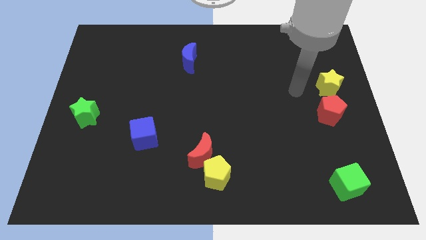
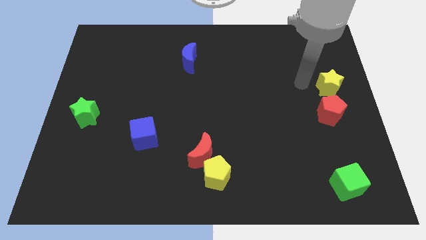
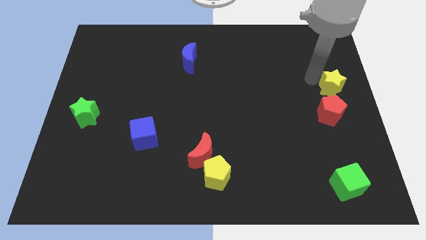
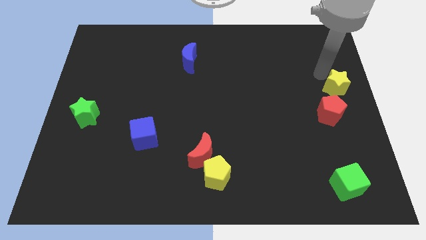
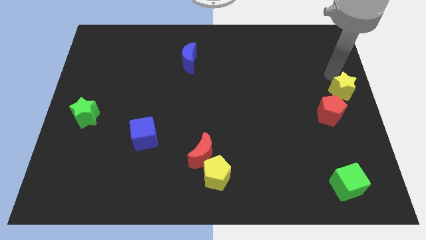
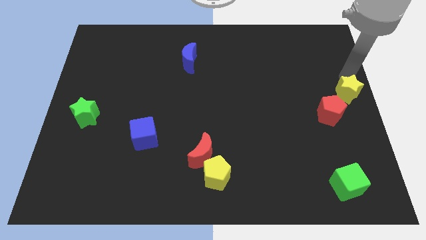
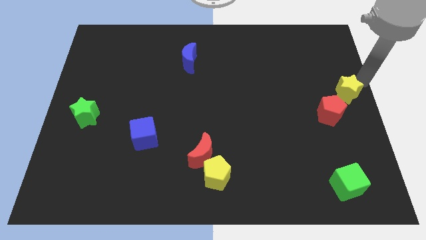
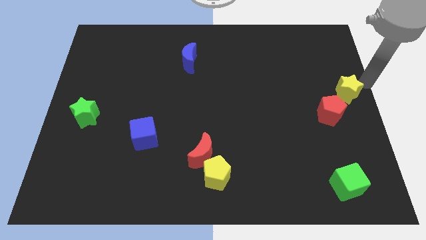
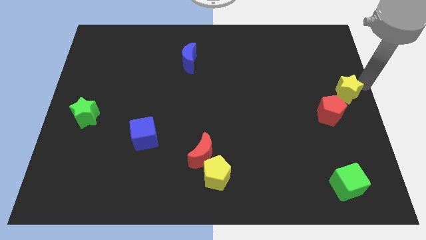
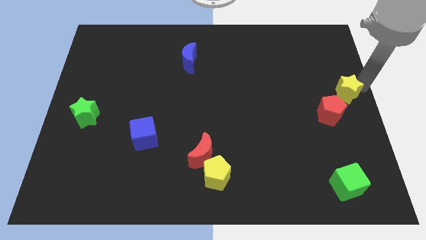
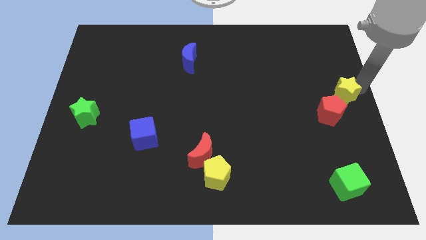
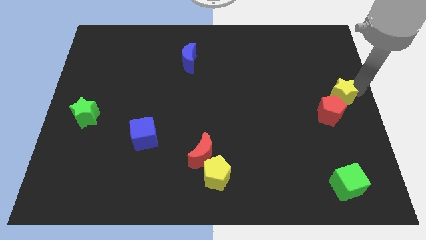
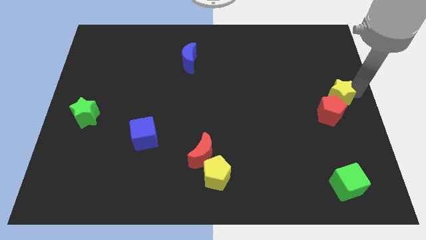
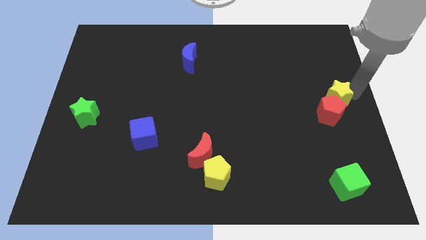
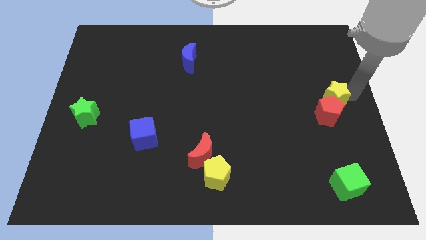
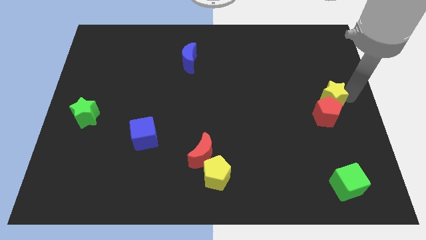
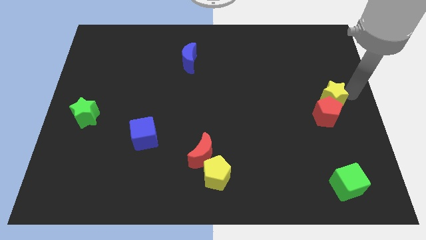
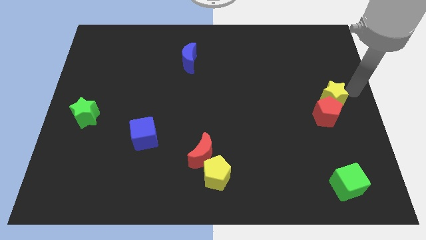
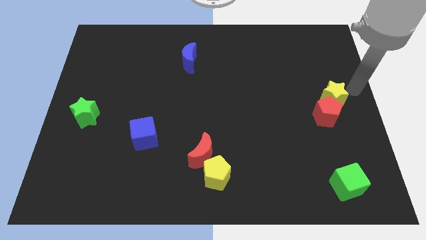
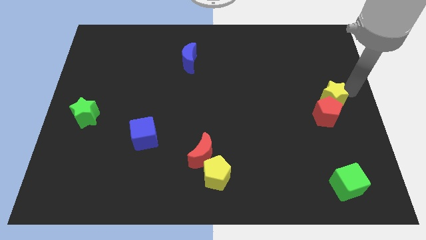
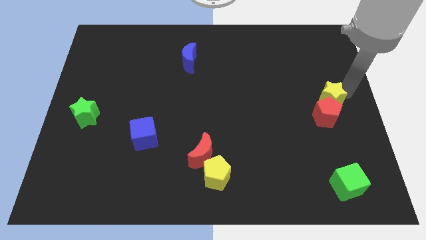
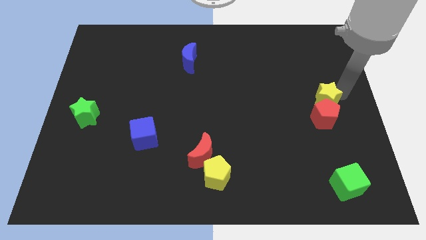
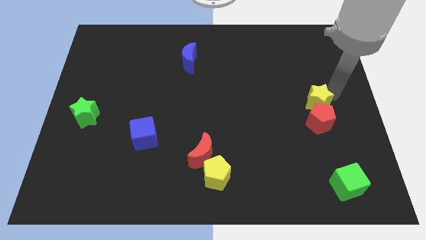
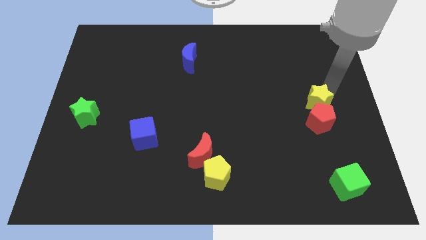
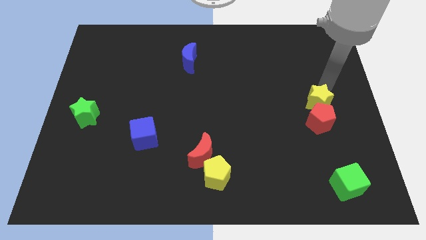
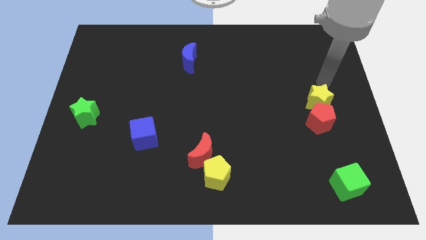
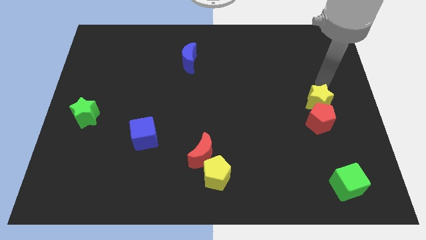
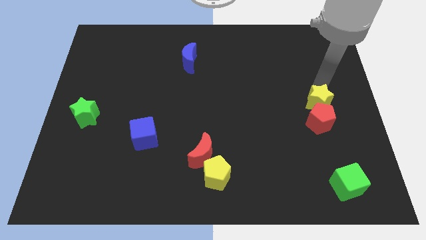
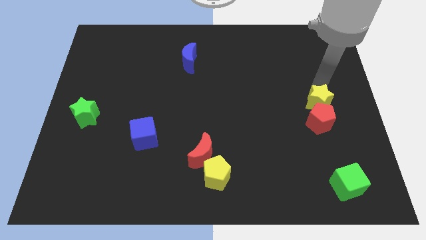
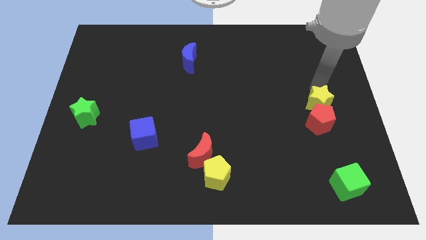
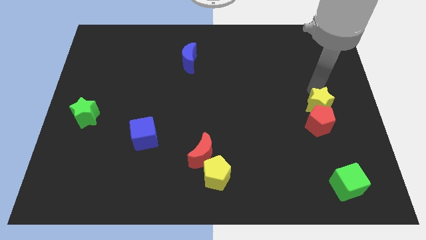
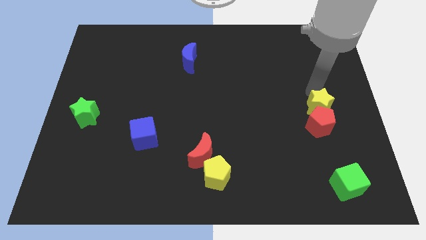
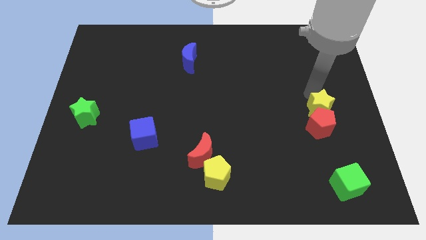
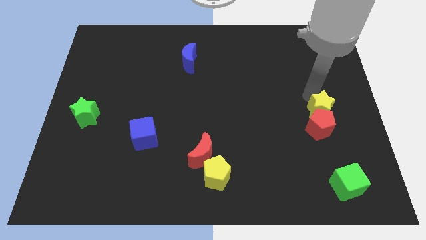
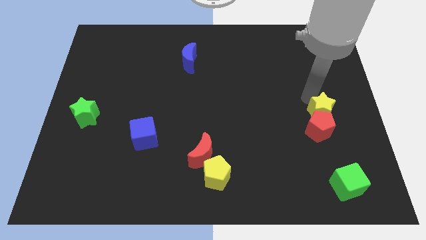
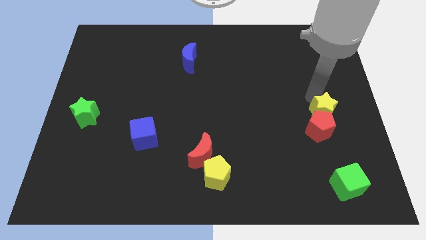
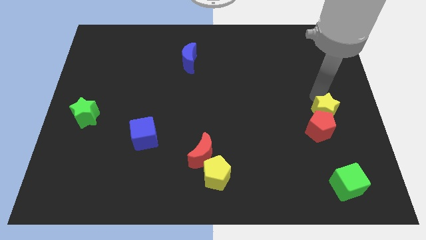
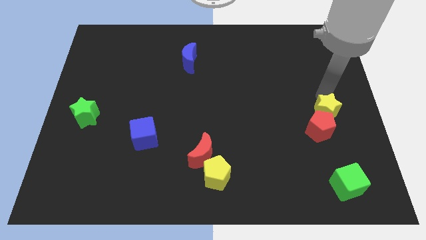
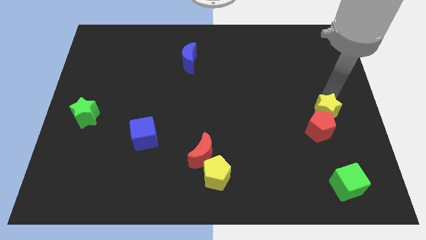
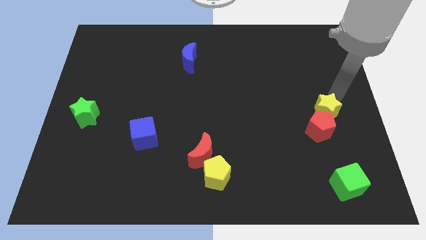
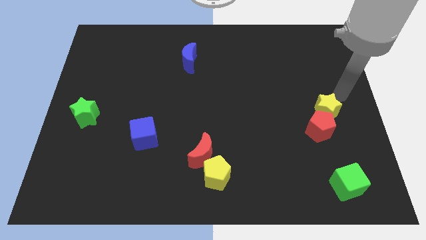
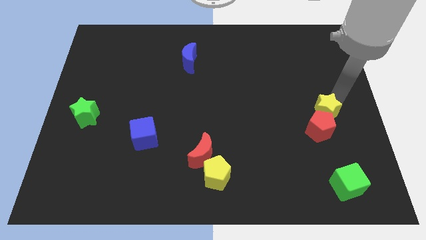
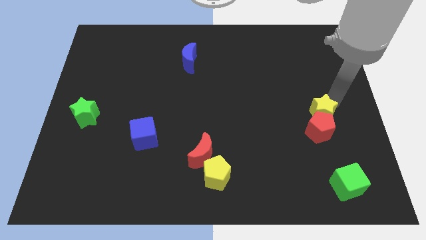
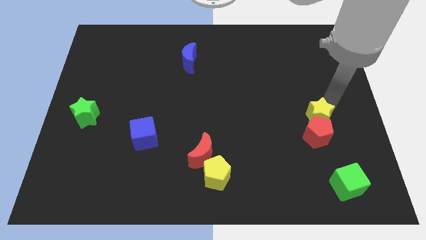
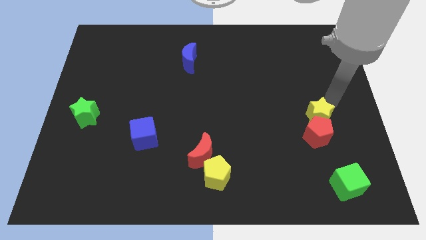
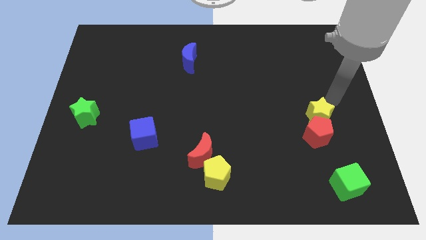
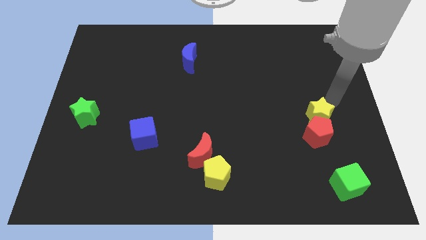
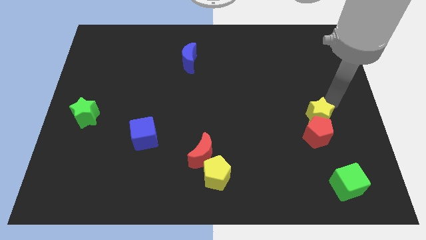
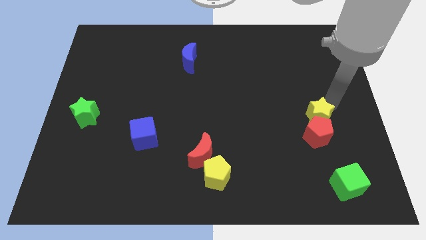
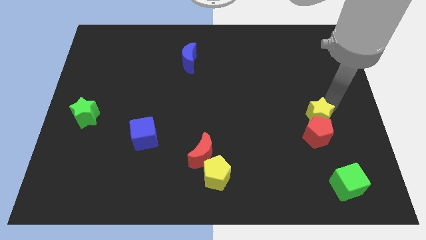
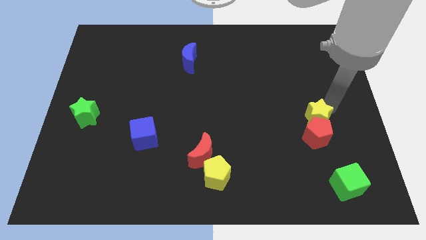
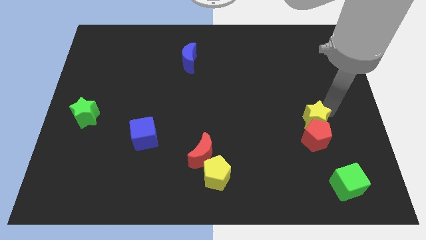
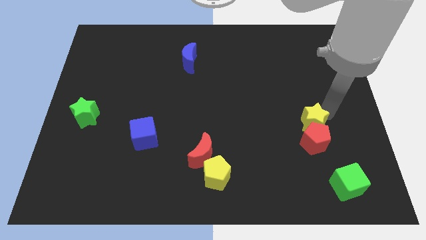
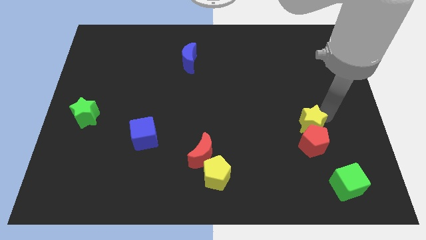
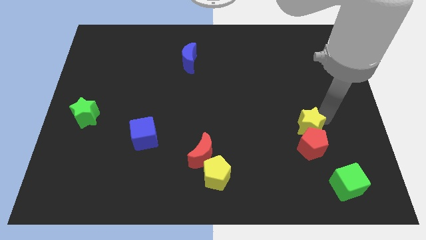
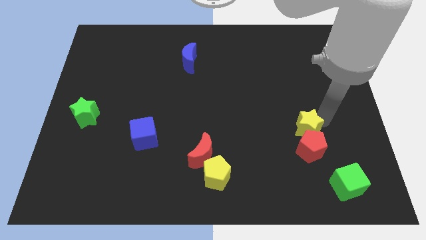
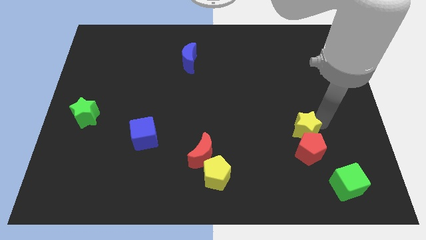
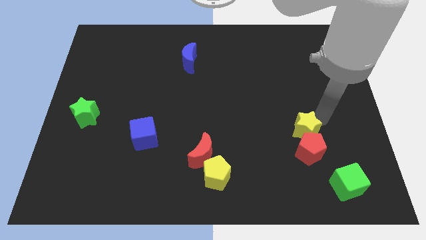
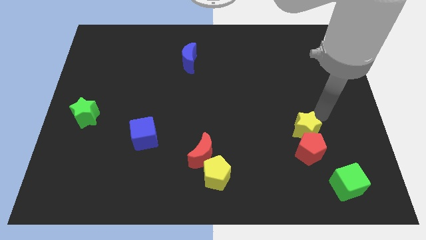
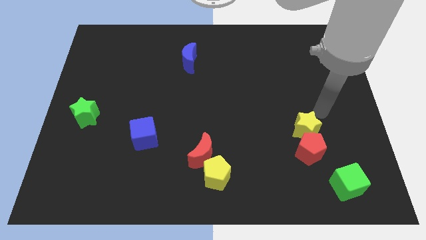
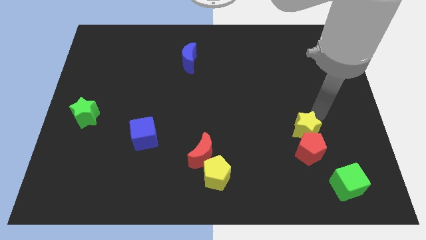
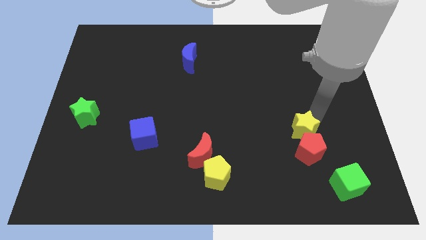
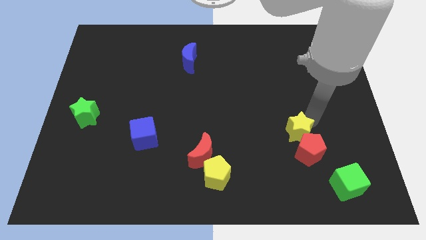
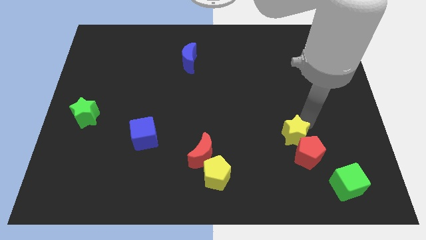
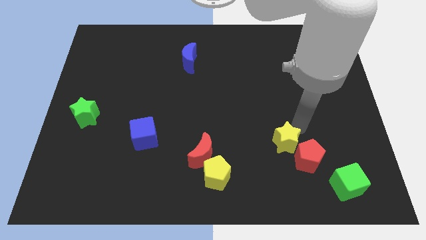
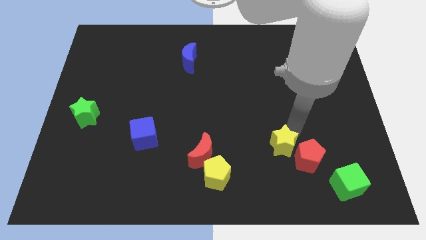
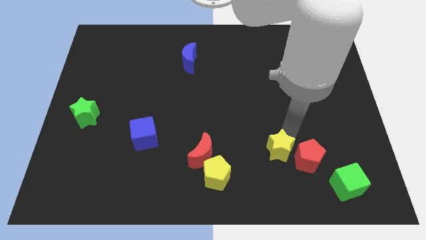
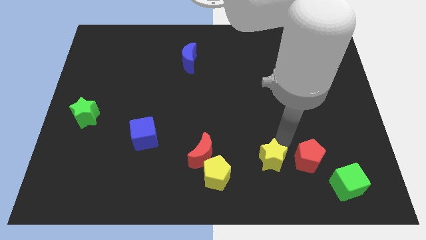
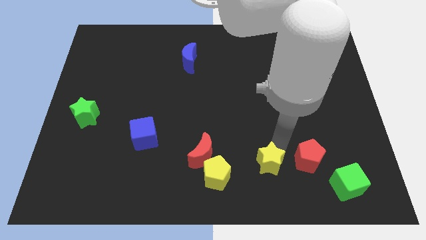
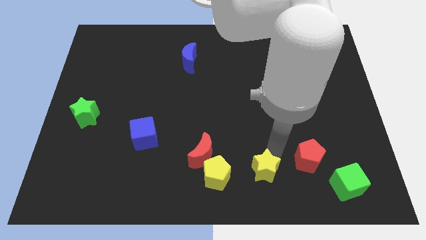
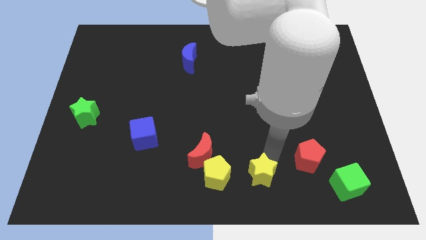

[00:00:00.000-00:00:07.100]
put the yellow star to the bottom side
